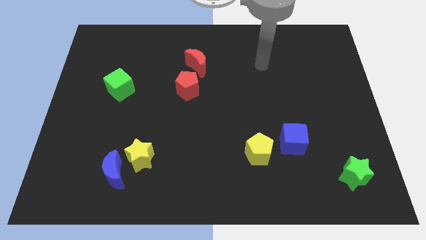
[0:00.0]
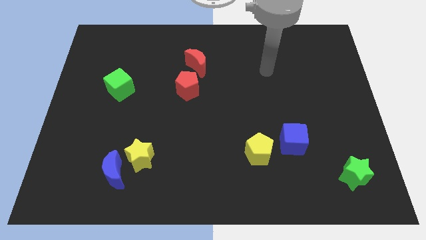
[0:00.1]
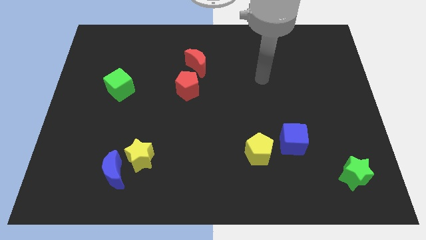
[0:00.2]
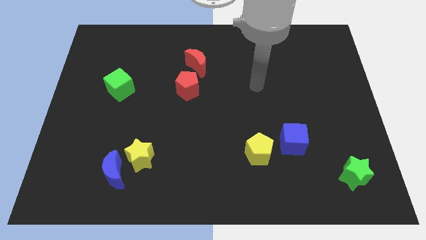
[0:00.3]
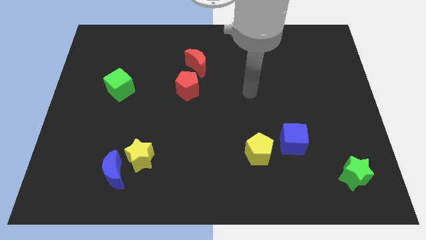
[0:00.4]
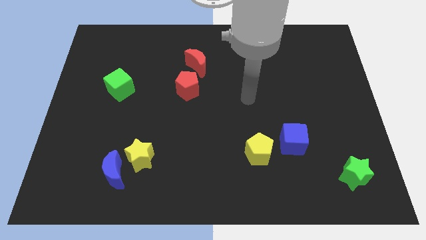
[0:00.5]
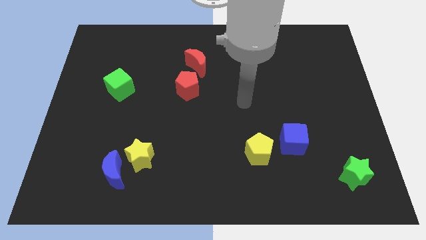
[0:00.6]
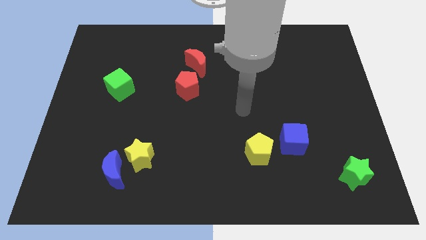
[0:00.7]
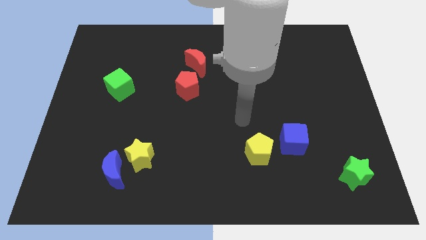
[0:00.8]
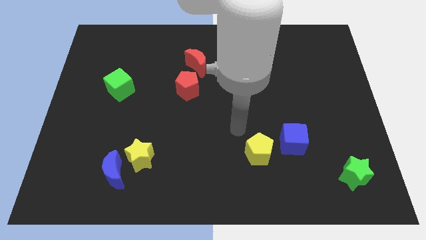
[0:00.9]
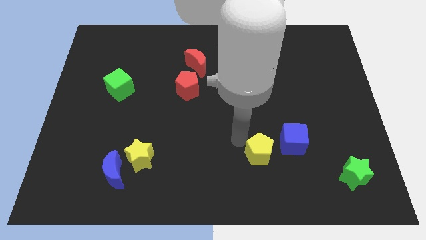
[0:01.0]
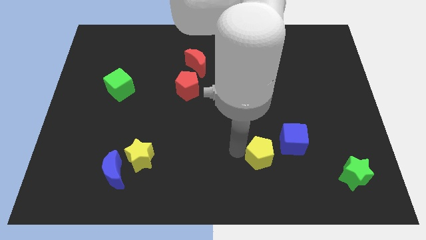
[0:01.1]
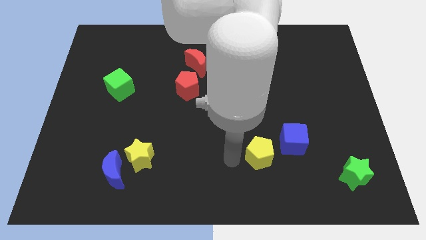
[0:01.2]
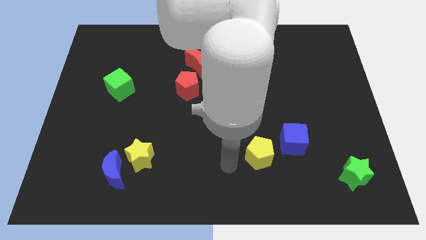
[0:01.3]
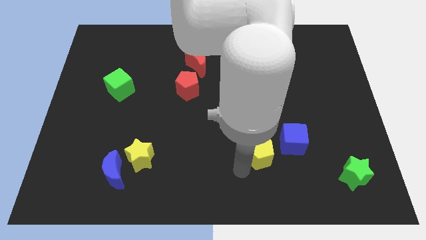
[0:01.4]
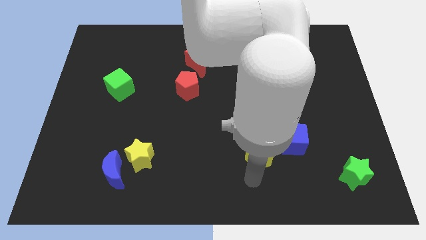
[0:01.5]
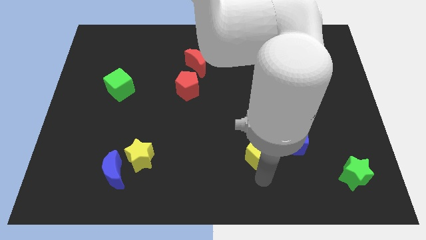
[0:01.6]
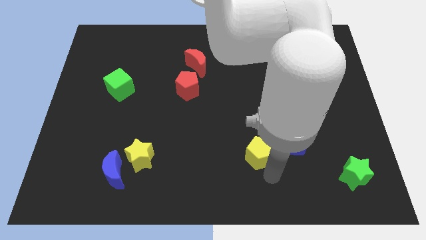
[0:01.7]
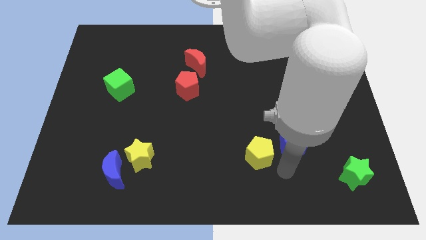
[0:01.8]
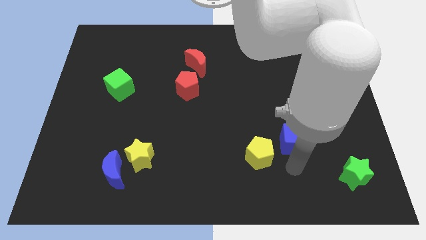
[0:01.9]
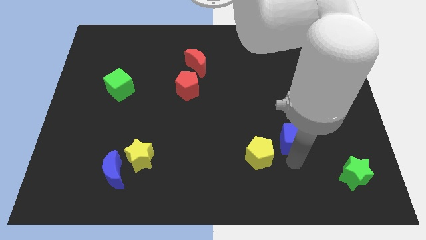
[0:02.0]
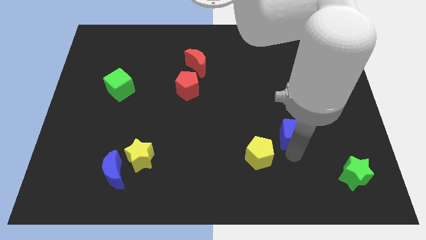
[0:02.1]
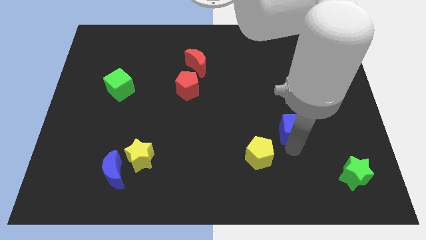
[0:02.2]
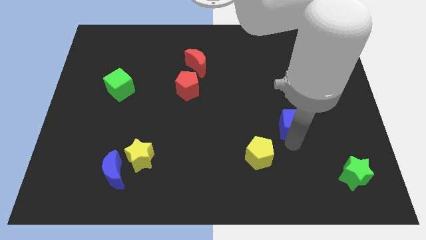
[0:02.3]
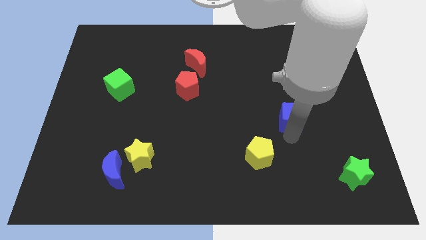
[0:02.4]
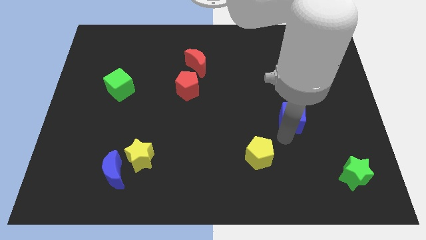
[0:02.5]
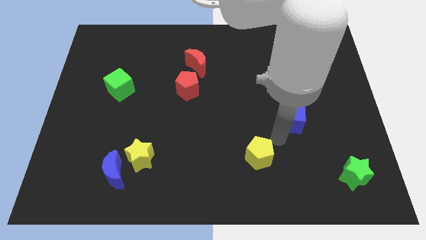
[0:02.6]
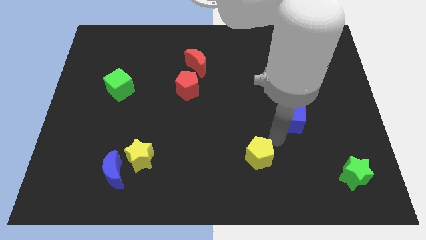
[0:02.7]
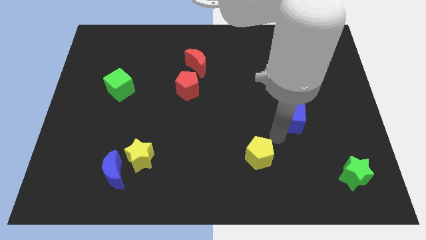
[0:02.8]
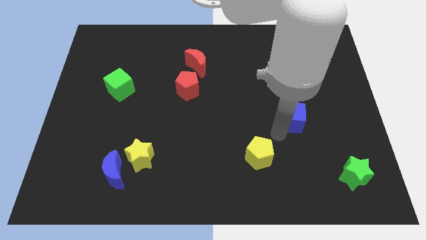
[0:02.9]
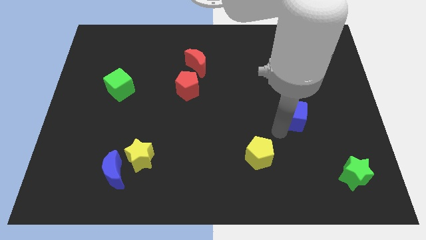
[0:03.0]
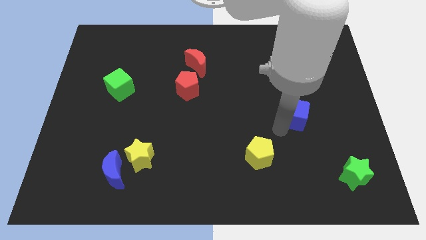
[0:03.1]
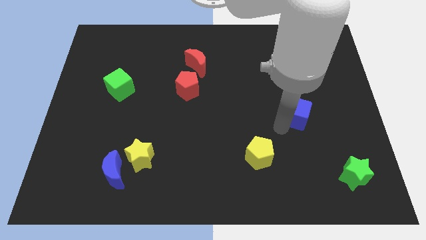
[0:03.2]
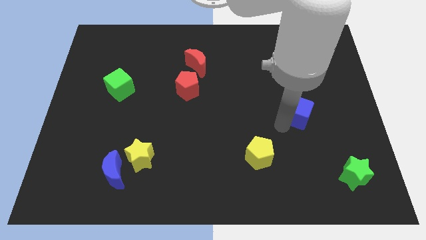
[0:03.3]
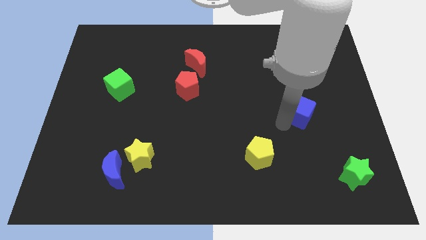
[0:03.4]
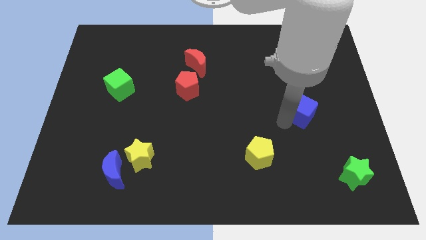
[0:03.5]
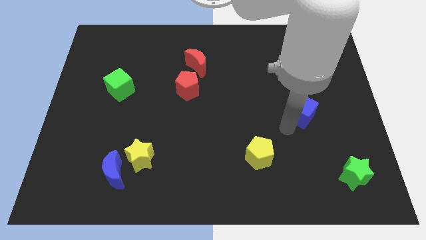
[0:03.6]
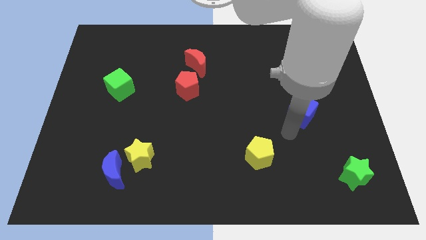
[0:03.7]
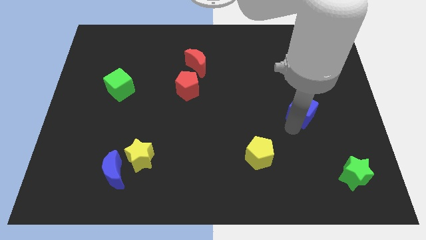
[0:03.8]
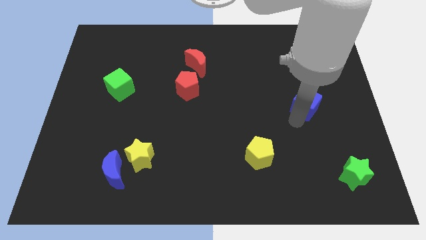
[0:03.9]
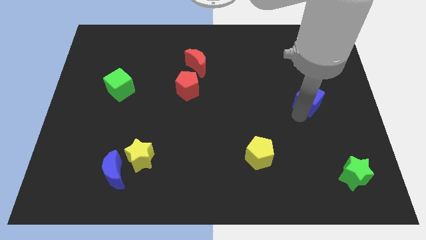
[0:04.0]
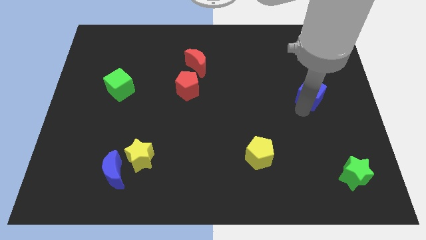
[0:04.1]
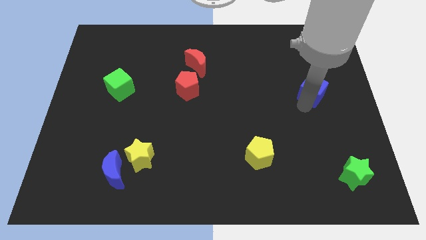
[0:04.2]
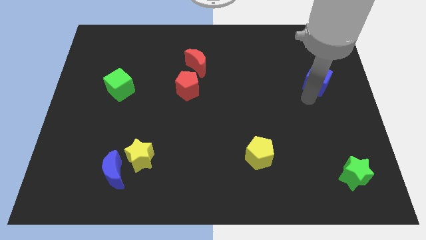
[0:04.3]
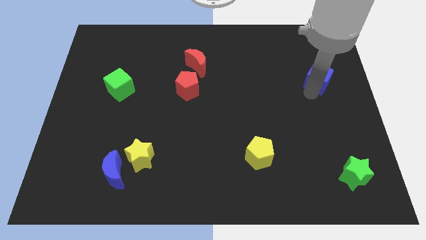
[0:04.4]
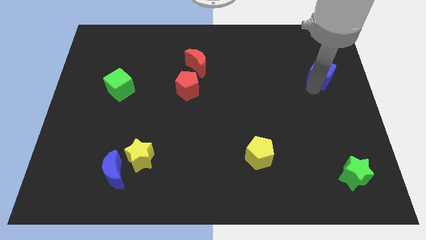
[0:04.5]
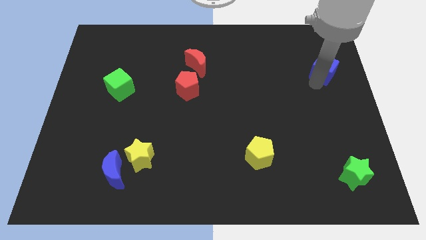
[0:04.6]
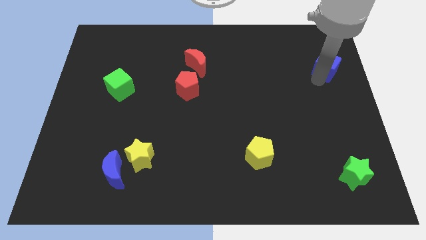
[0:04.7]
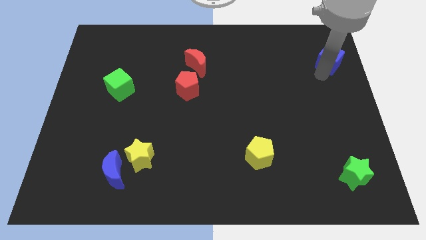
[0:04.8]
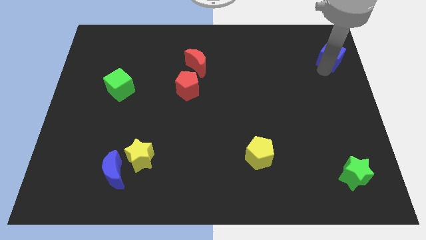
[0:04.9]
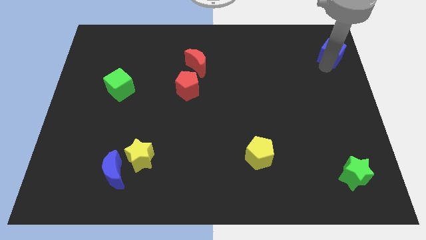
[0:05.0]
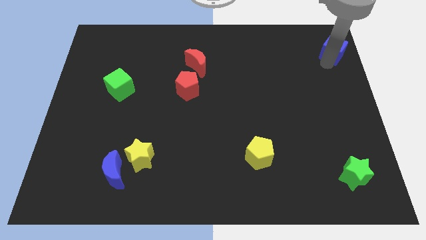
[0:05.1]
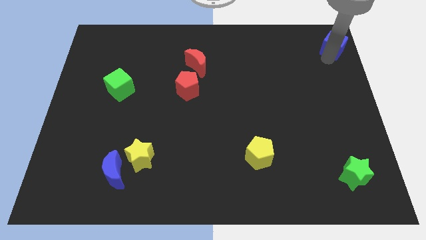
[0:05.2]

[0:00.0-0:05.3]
put the blue cube to the top right corner
